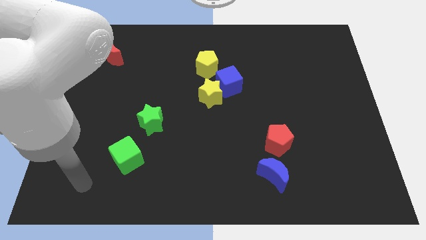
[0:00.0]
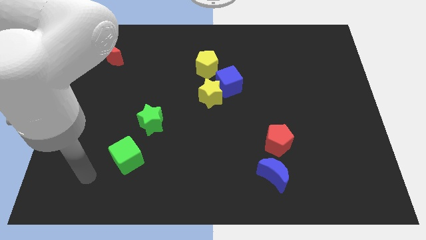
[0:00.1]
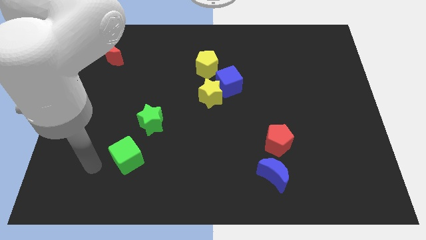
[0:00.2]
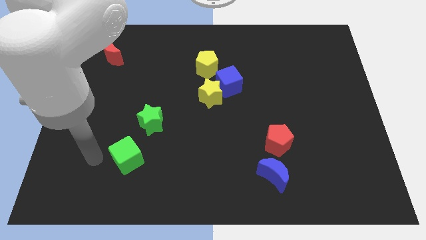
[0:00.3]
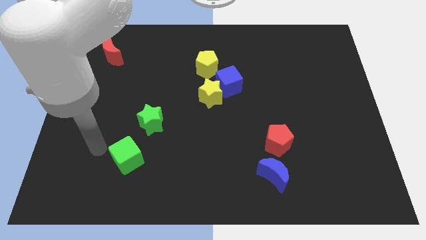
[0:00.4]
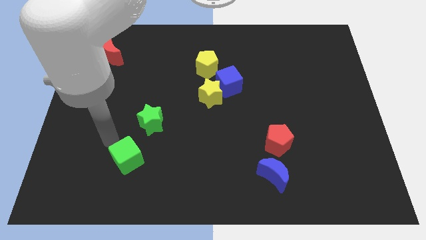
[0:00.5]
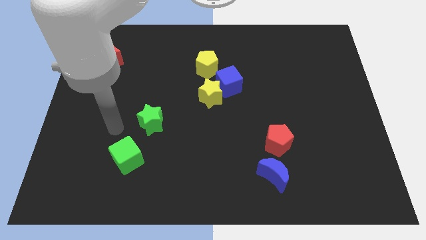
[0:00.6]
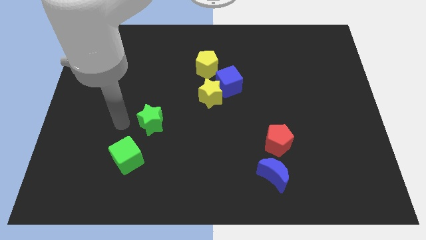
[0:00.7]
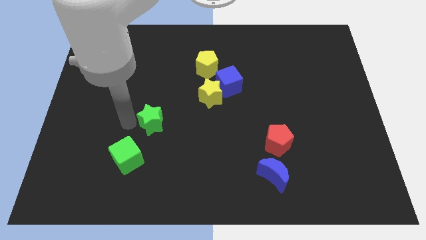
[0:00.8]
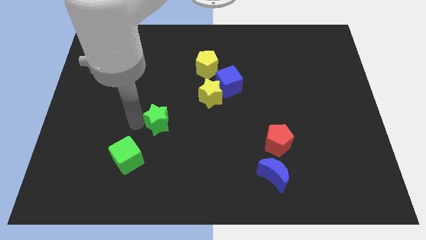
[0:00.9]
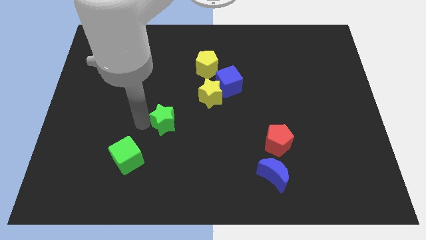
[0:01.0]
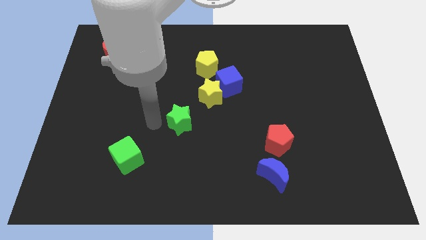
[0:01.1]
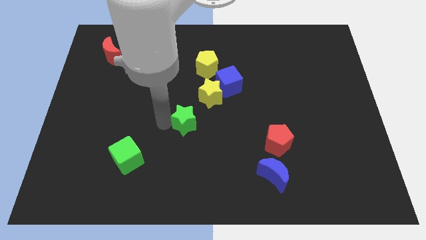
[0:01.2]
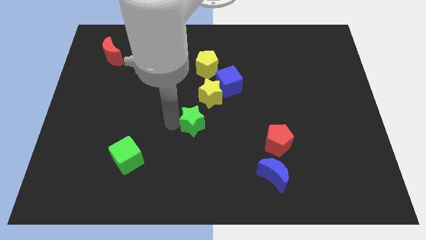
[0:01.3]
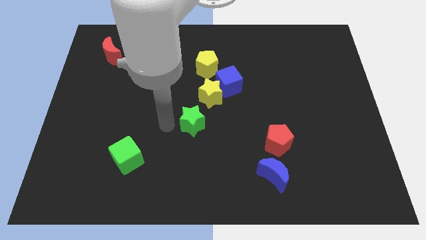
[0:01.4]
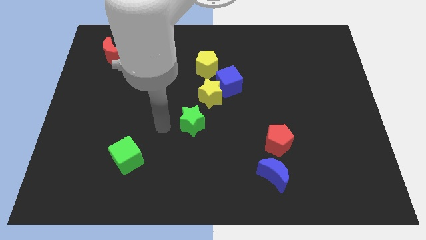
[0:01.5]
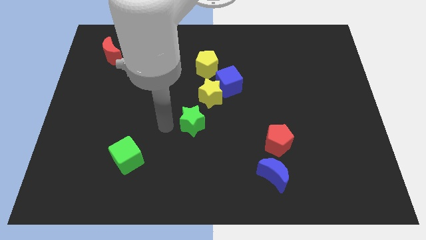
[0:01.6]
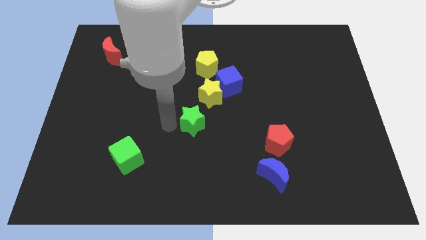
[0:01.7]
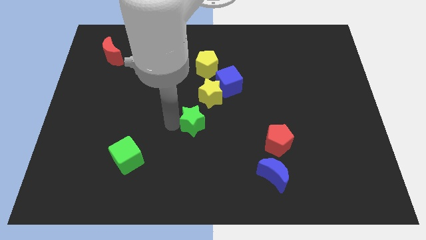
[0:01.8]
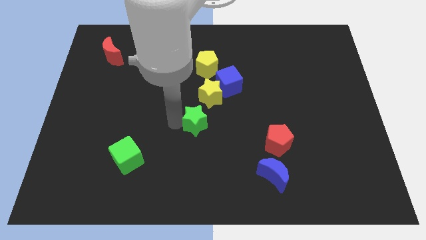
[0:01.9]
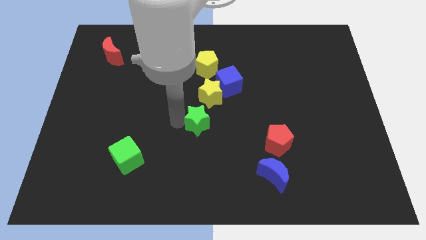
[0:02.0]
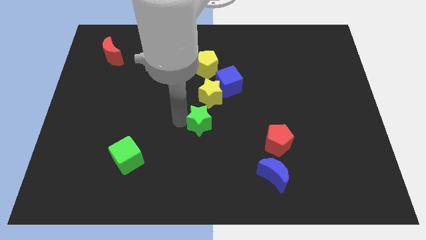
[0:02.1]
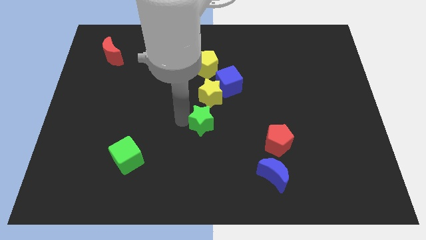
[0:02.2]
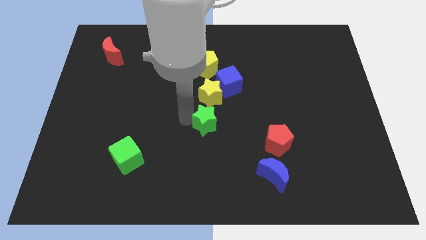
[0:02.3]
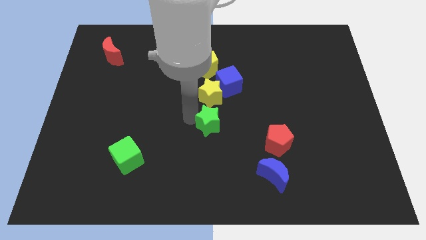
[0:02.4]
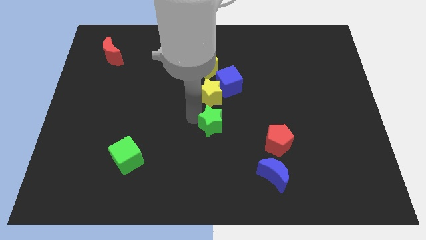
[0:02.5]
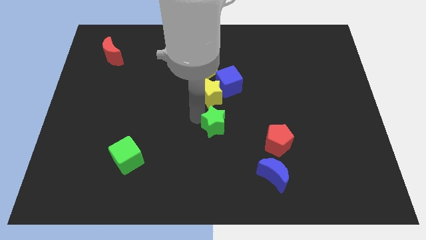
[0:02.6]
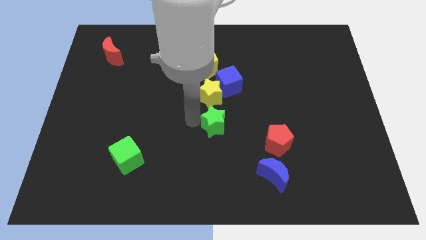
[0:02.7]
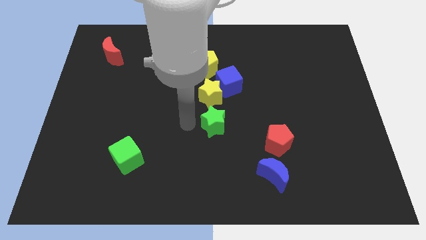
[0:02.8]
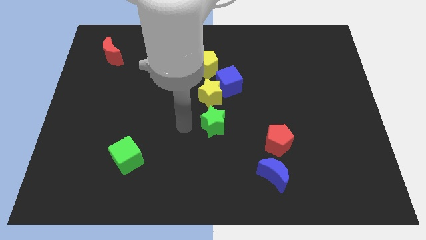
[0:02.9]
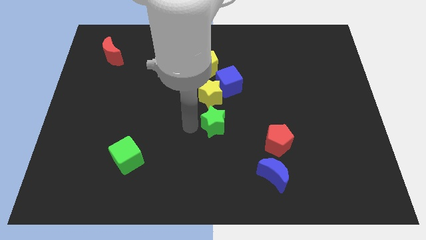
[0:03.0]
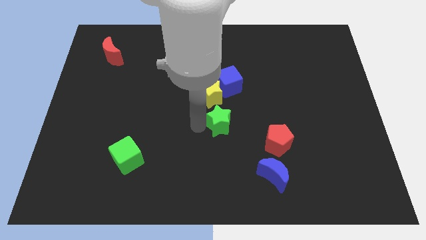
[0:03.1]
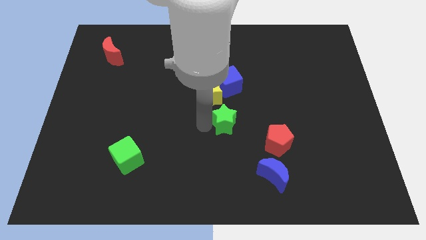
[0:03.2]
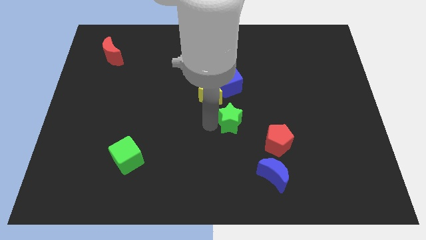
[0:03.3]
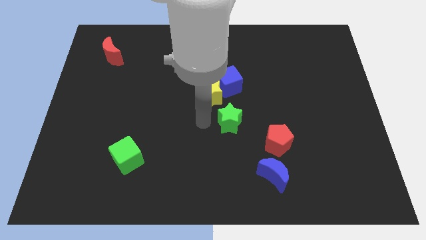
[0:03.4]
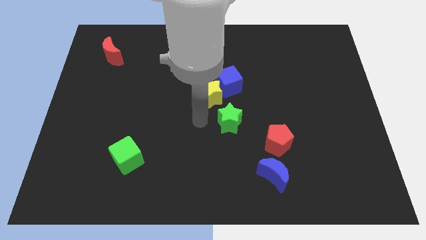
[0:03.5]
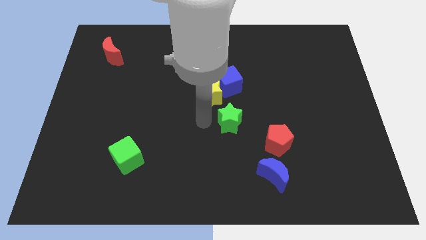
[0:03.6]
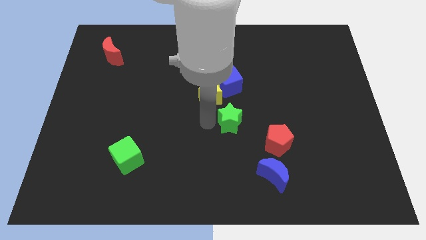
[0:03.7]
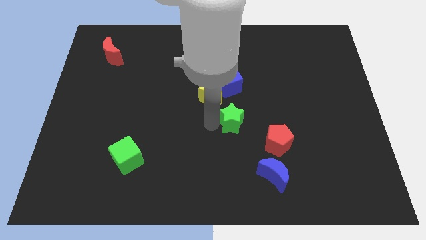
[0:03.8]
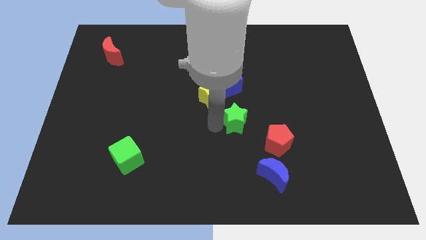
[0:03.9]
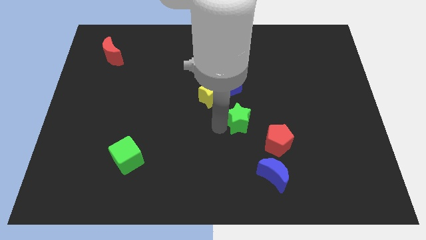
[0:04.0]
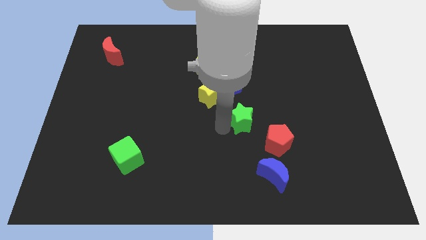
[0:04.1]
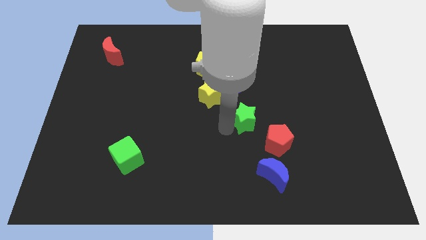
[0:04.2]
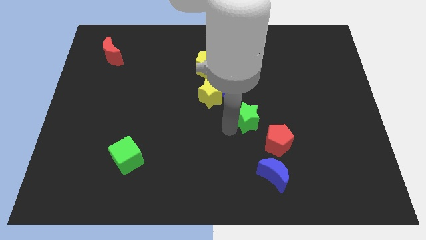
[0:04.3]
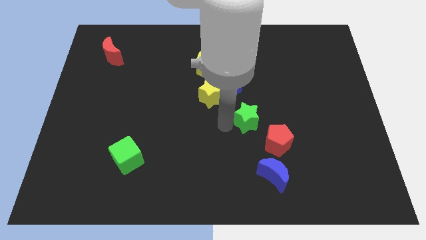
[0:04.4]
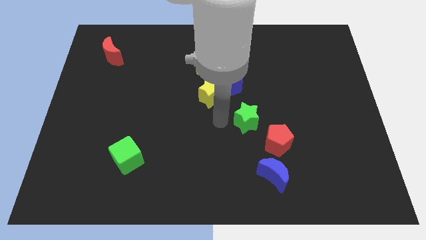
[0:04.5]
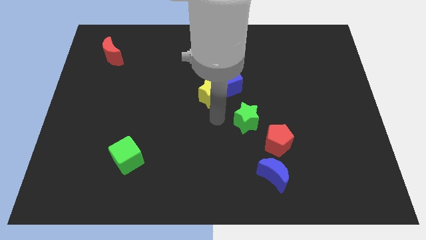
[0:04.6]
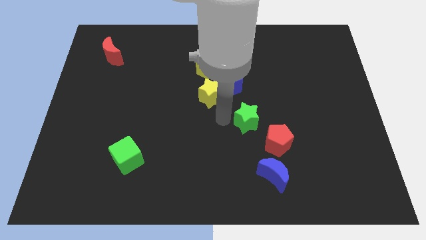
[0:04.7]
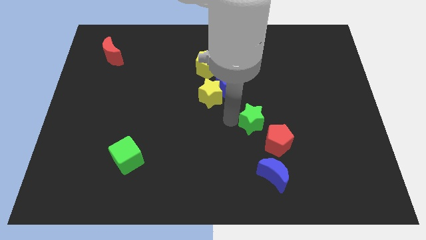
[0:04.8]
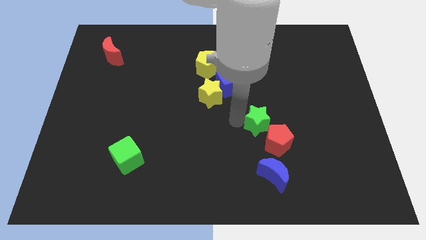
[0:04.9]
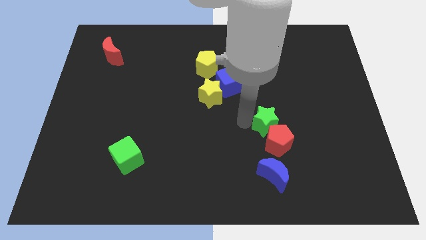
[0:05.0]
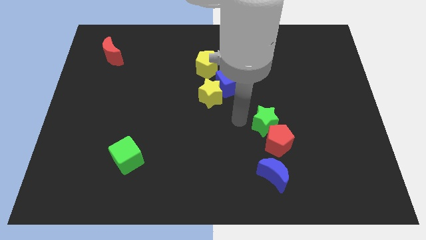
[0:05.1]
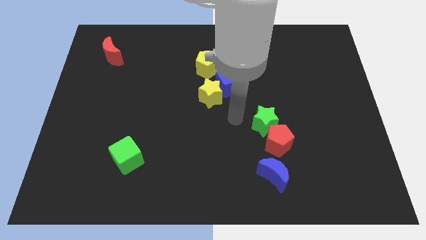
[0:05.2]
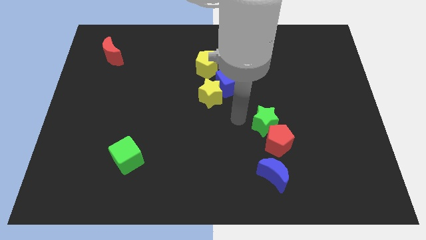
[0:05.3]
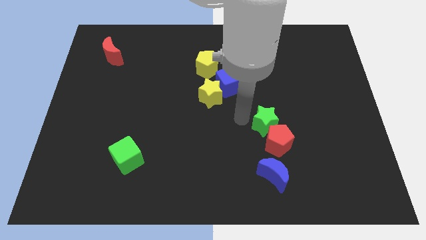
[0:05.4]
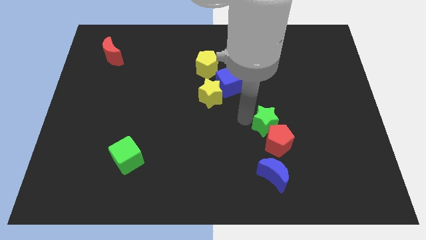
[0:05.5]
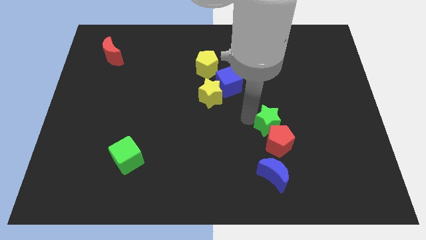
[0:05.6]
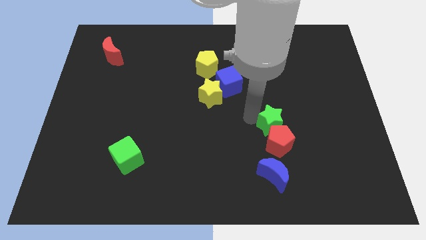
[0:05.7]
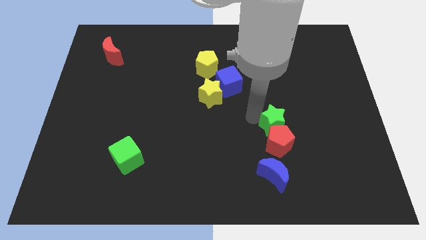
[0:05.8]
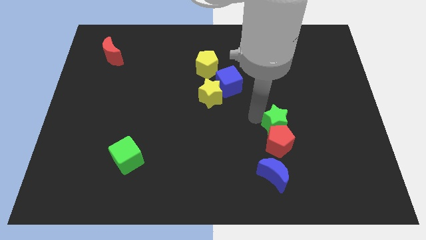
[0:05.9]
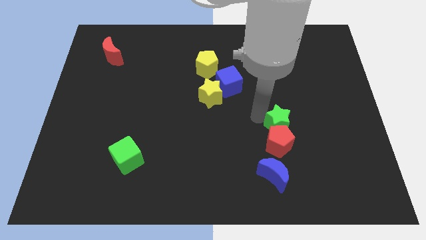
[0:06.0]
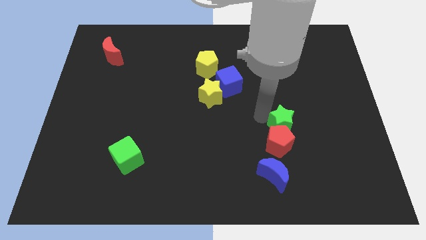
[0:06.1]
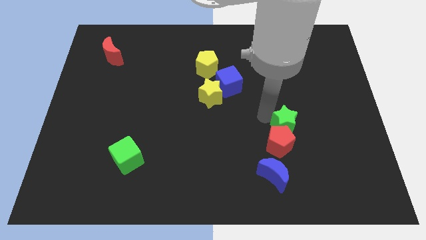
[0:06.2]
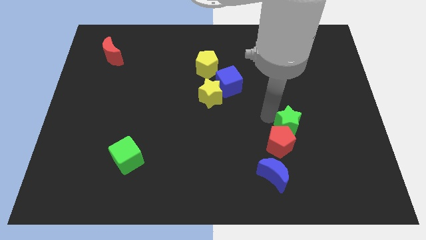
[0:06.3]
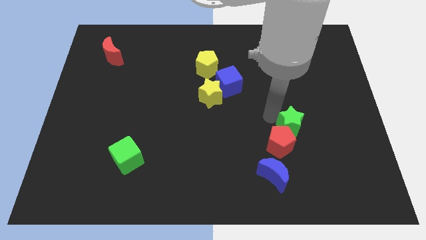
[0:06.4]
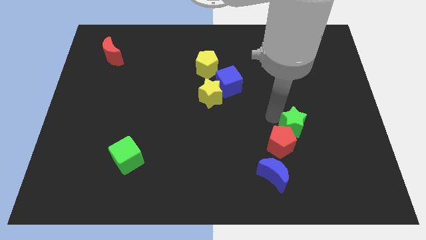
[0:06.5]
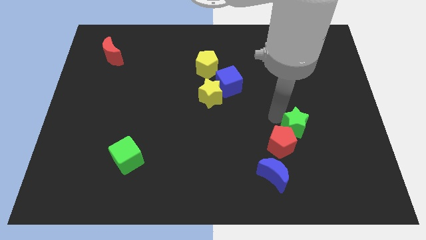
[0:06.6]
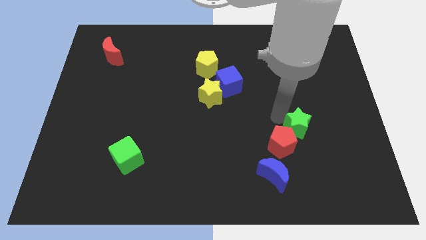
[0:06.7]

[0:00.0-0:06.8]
slide the green star just right of the red pentagon

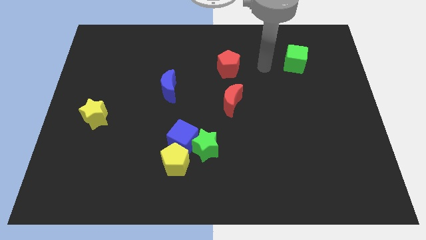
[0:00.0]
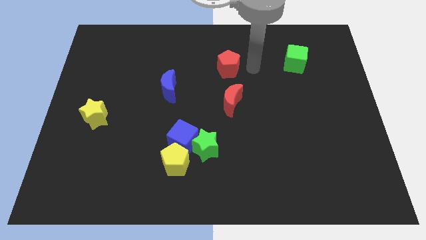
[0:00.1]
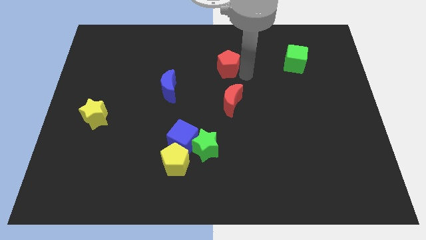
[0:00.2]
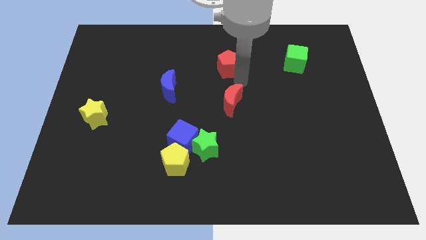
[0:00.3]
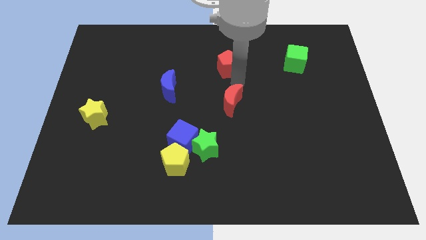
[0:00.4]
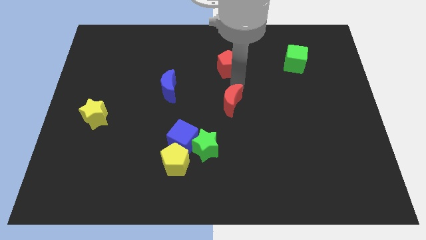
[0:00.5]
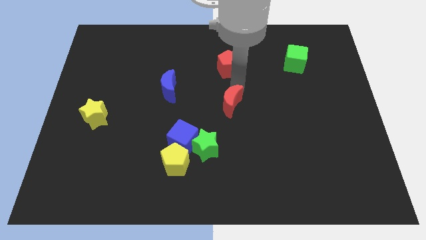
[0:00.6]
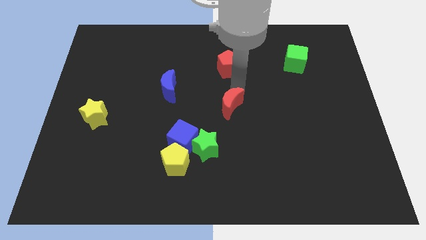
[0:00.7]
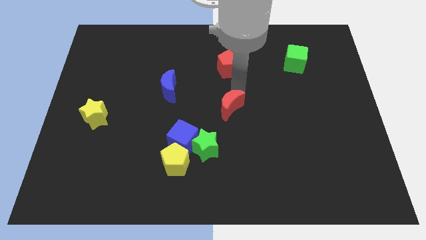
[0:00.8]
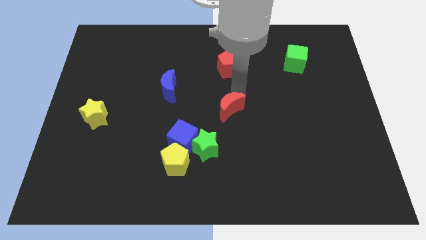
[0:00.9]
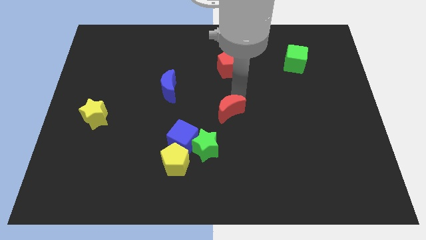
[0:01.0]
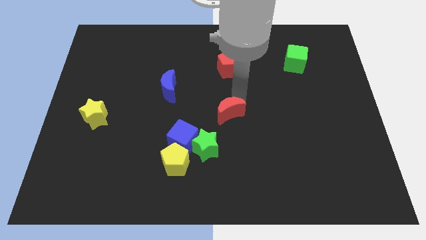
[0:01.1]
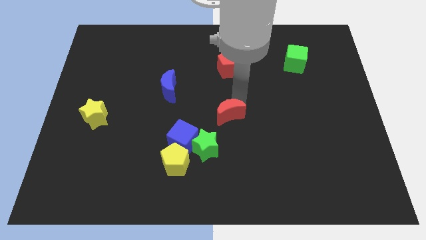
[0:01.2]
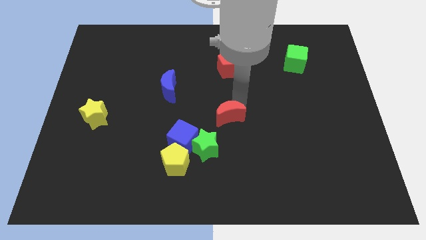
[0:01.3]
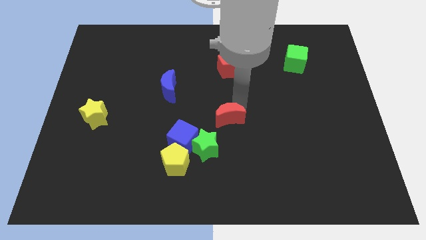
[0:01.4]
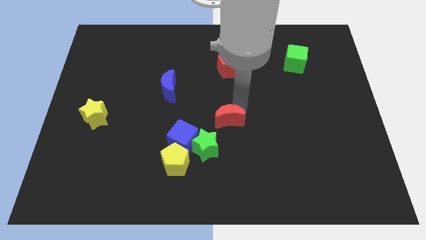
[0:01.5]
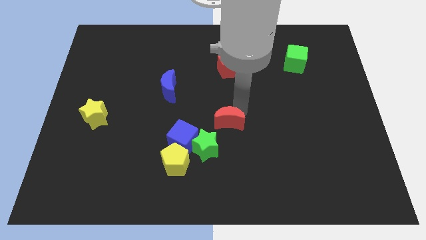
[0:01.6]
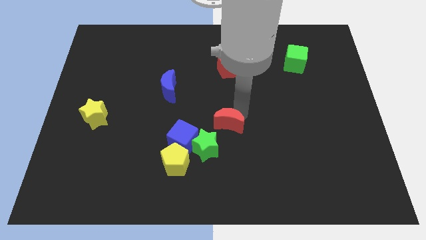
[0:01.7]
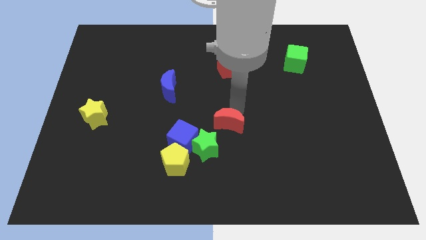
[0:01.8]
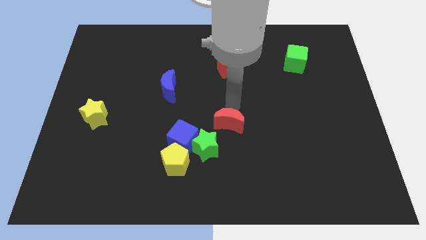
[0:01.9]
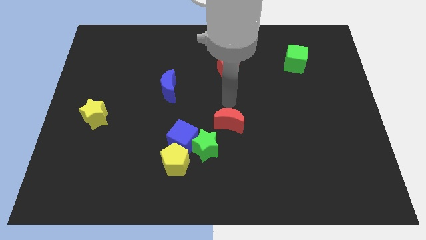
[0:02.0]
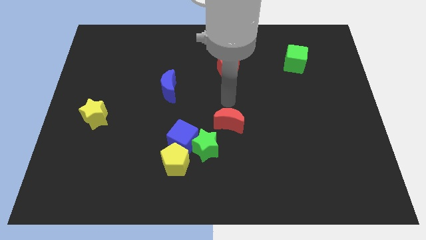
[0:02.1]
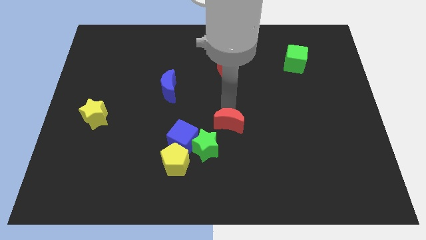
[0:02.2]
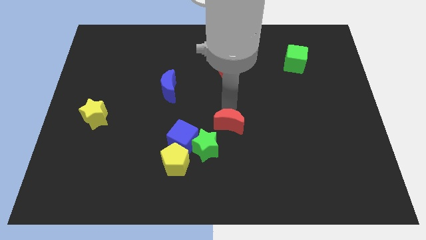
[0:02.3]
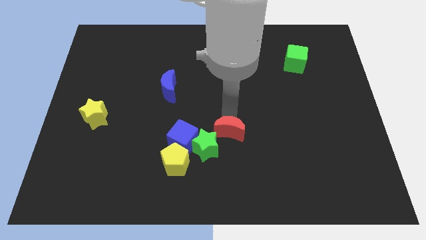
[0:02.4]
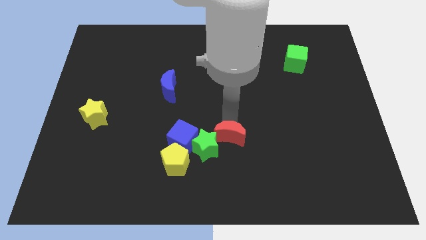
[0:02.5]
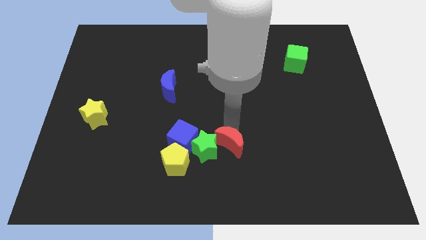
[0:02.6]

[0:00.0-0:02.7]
slide the red moon to the right side of the yellow pentagon
